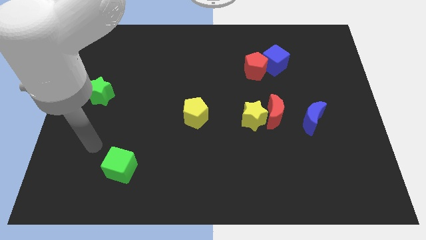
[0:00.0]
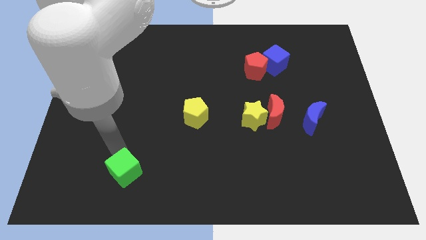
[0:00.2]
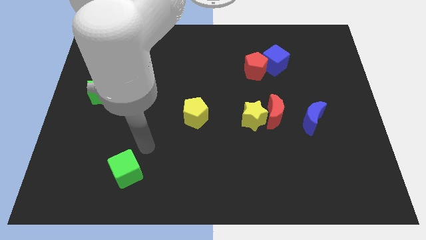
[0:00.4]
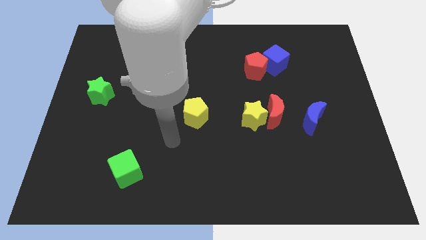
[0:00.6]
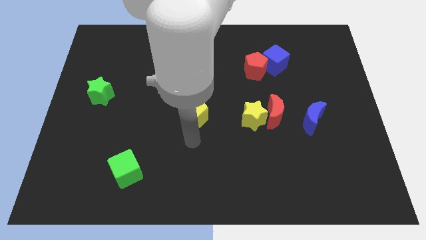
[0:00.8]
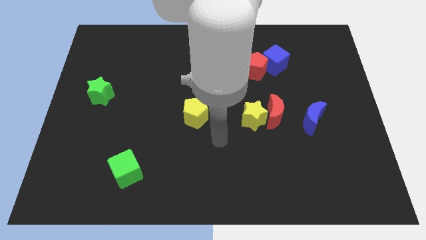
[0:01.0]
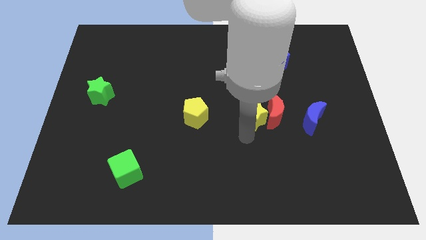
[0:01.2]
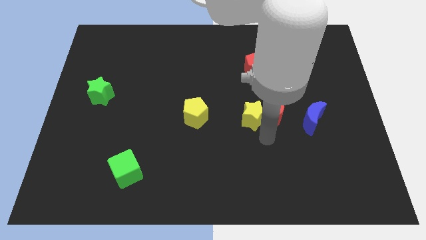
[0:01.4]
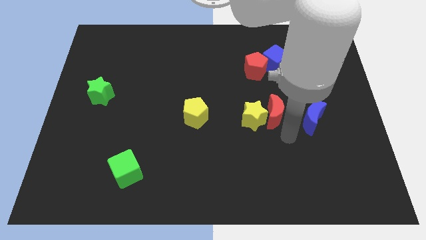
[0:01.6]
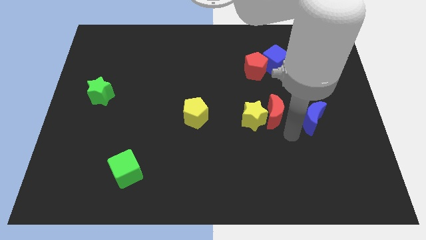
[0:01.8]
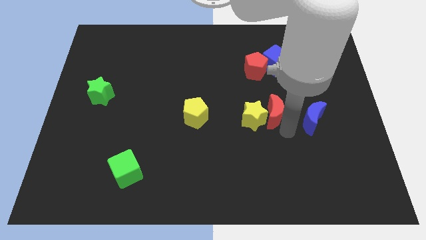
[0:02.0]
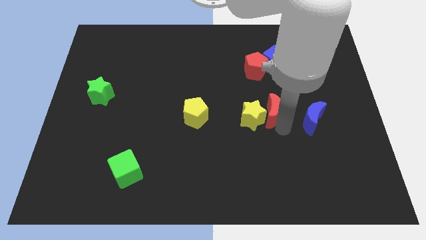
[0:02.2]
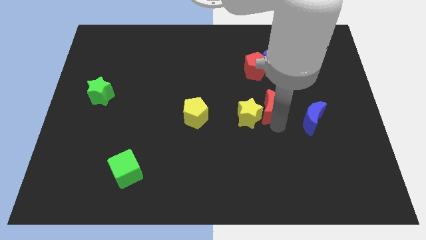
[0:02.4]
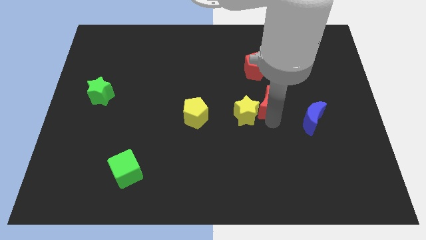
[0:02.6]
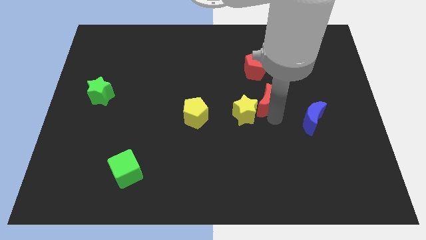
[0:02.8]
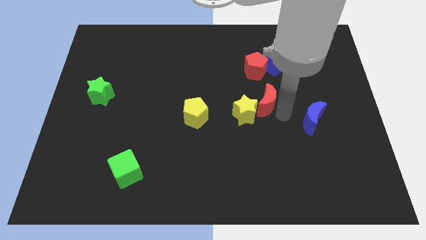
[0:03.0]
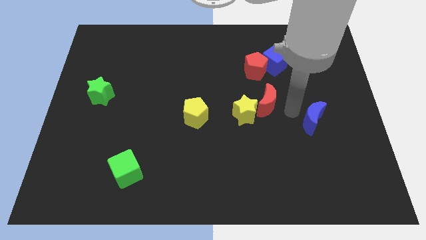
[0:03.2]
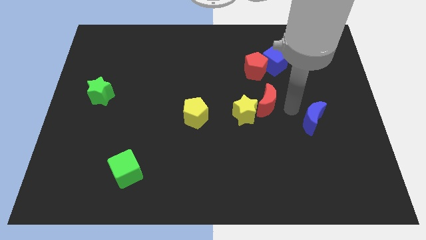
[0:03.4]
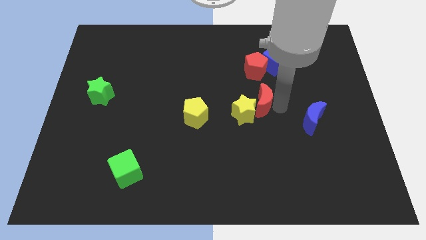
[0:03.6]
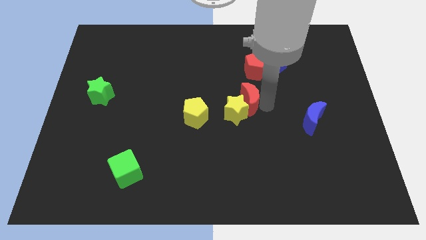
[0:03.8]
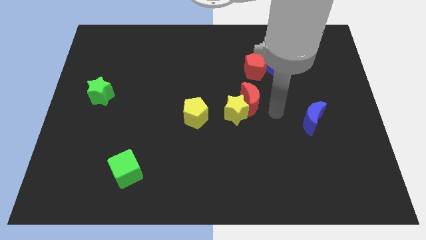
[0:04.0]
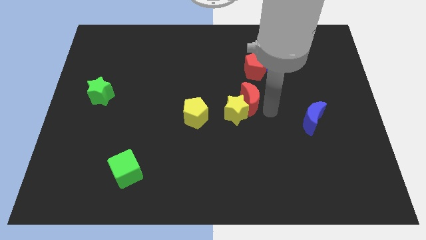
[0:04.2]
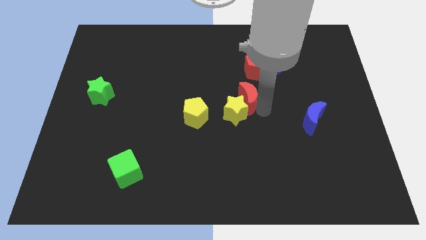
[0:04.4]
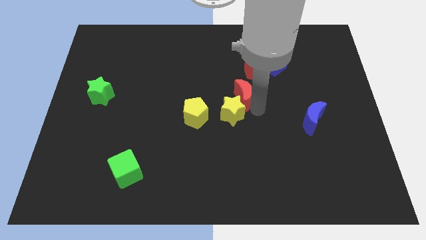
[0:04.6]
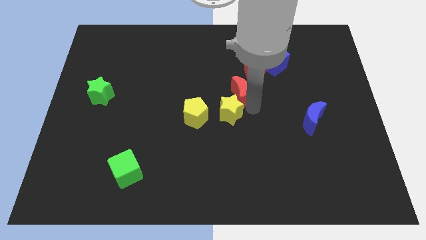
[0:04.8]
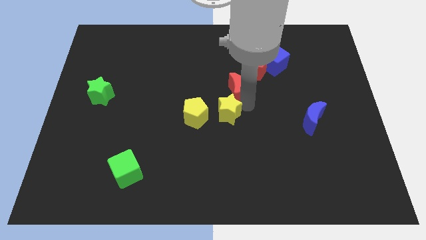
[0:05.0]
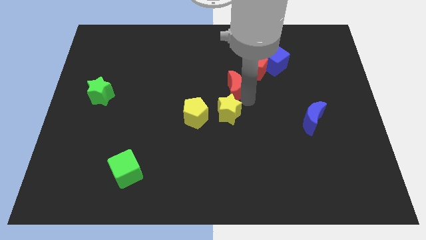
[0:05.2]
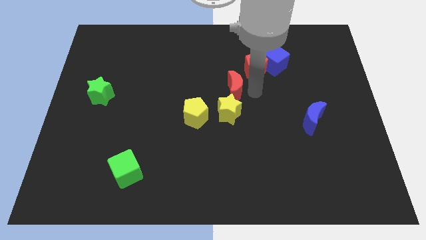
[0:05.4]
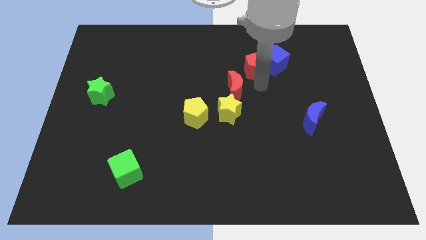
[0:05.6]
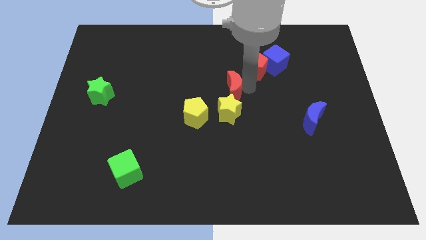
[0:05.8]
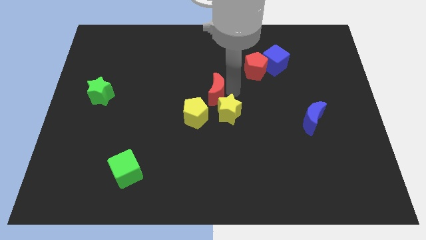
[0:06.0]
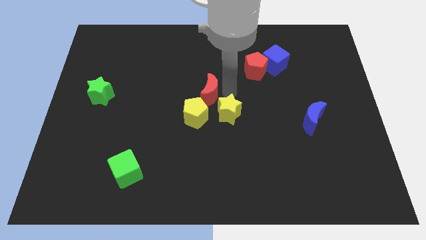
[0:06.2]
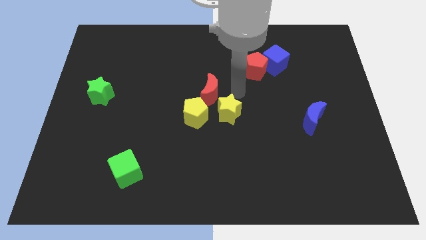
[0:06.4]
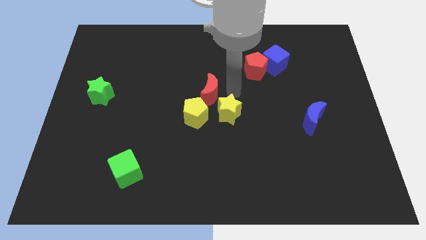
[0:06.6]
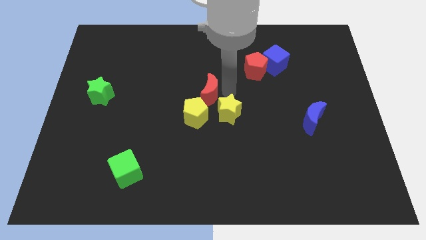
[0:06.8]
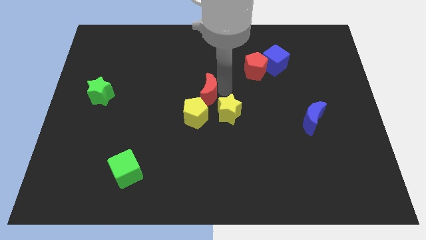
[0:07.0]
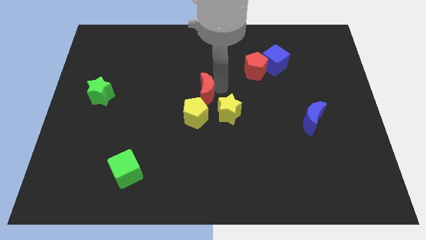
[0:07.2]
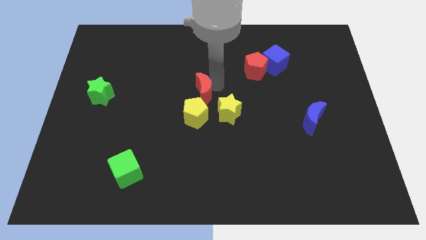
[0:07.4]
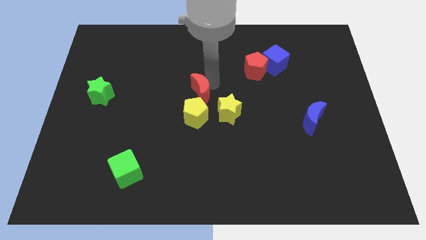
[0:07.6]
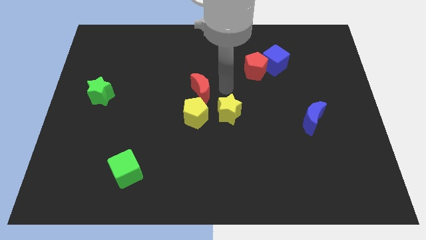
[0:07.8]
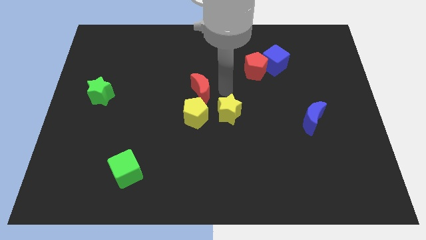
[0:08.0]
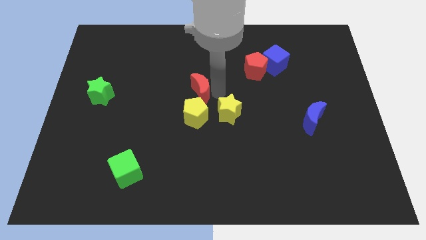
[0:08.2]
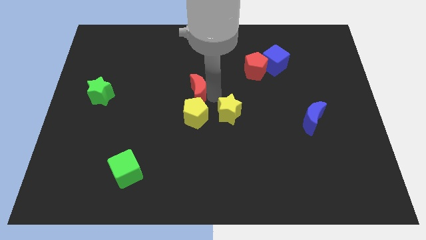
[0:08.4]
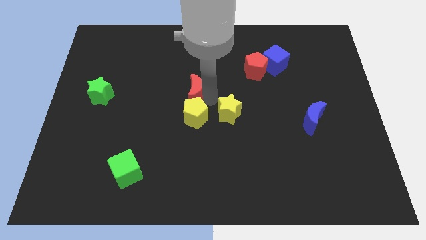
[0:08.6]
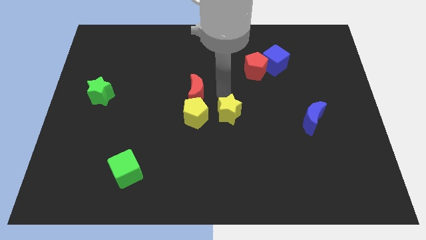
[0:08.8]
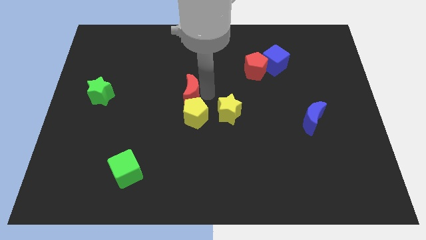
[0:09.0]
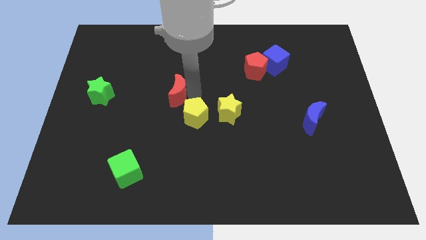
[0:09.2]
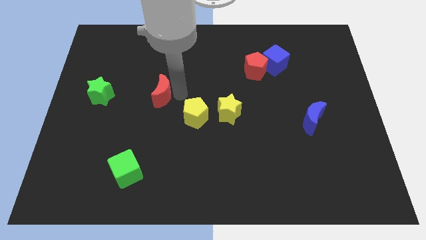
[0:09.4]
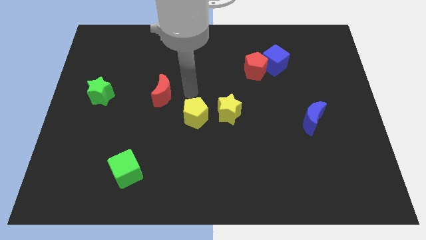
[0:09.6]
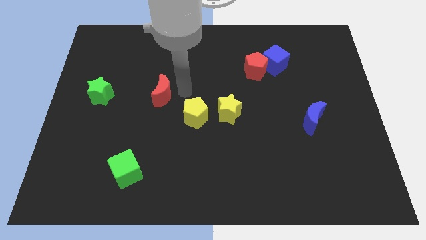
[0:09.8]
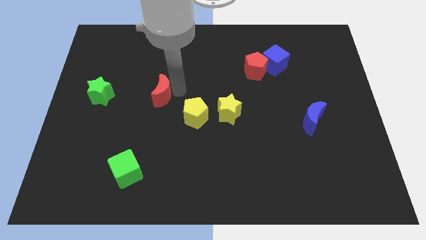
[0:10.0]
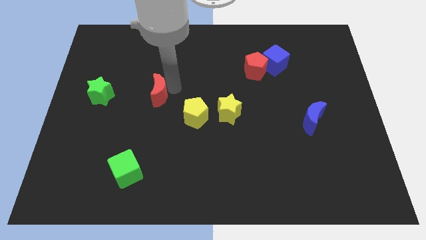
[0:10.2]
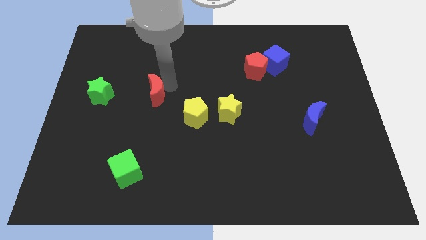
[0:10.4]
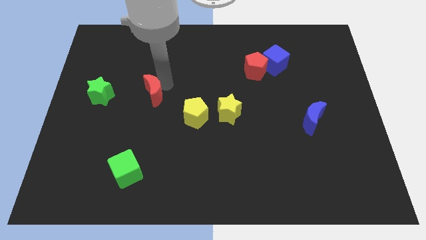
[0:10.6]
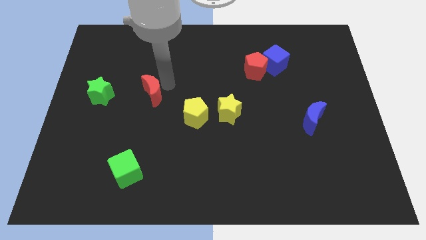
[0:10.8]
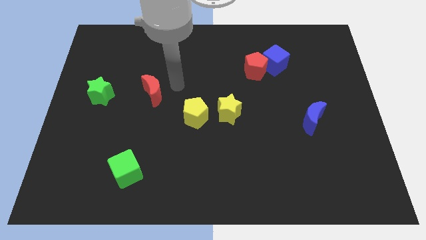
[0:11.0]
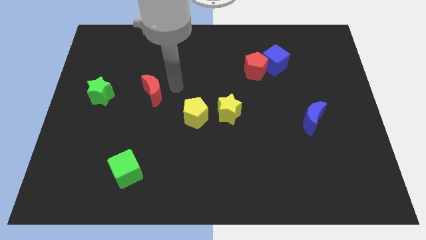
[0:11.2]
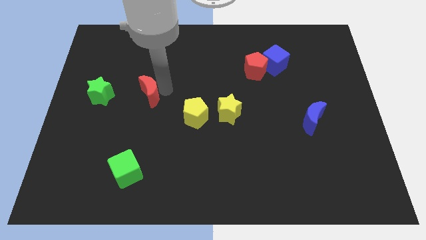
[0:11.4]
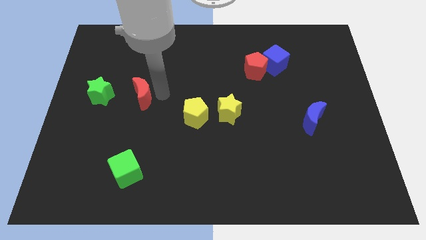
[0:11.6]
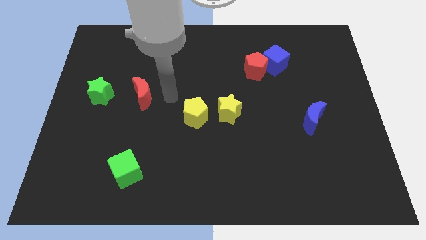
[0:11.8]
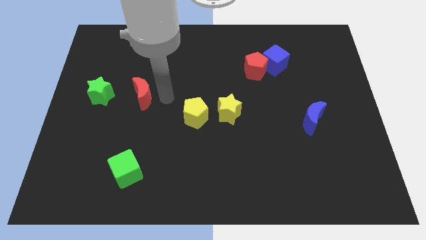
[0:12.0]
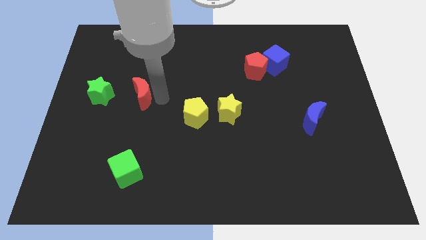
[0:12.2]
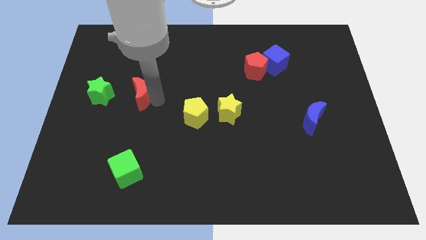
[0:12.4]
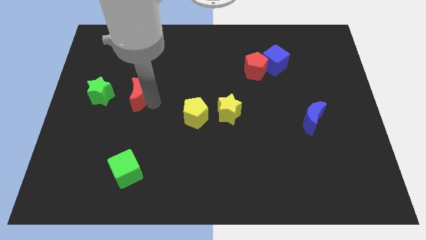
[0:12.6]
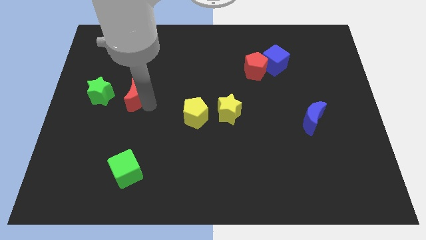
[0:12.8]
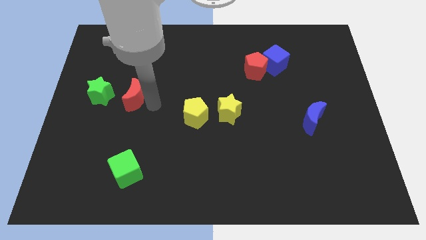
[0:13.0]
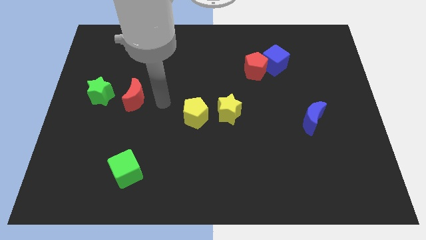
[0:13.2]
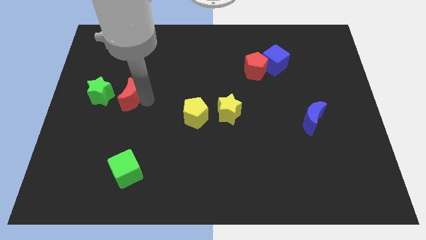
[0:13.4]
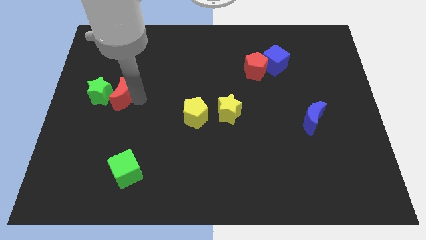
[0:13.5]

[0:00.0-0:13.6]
push the red moon next to the green star

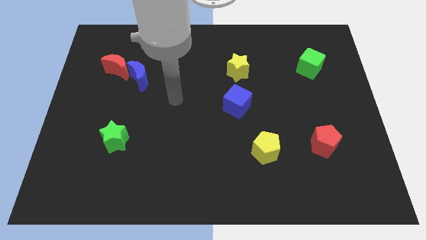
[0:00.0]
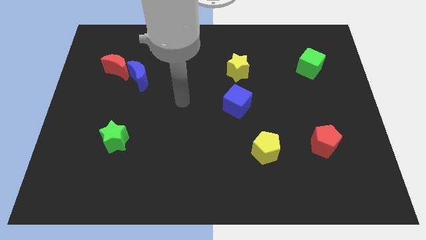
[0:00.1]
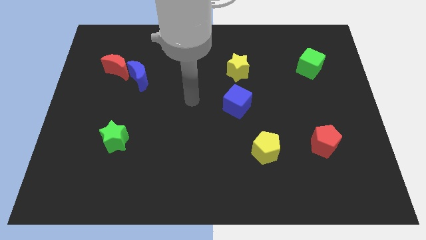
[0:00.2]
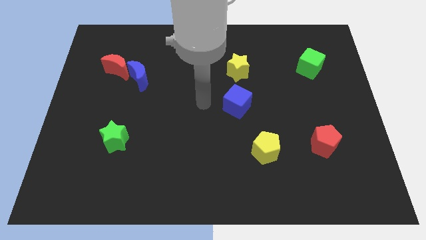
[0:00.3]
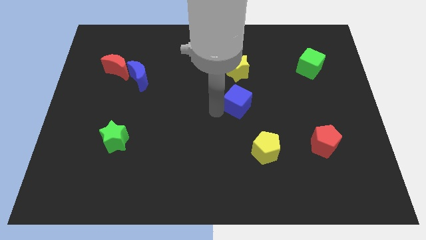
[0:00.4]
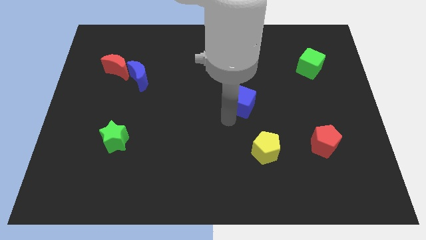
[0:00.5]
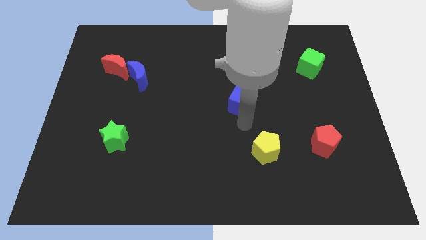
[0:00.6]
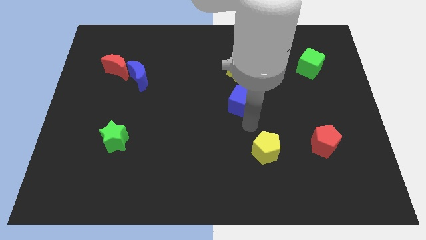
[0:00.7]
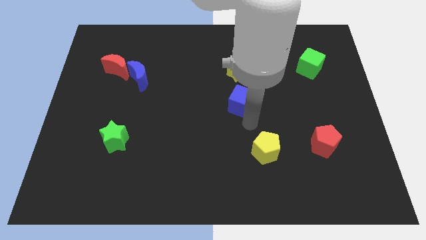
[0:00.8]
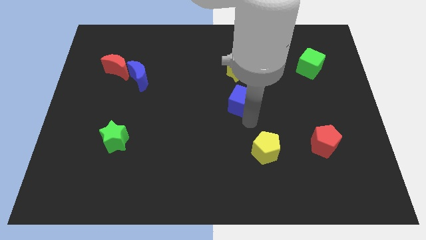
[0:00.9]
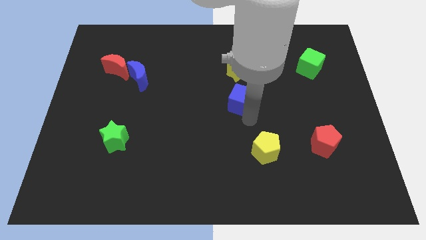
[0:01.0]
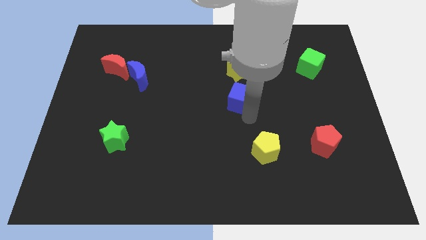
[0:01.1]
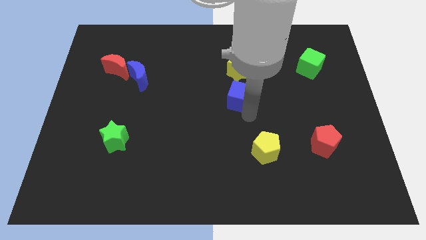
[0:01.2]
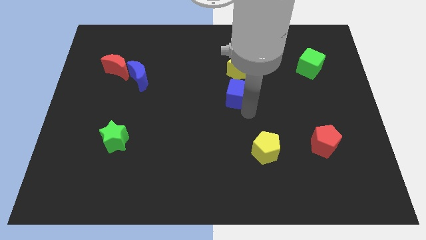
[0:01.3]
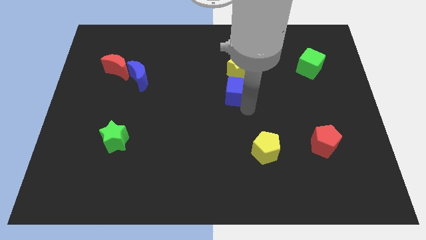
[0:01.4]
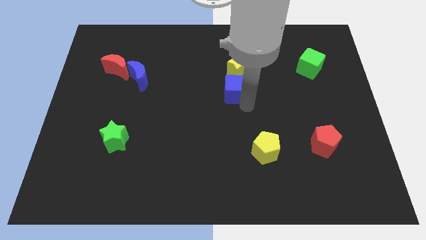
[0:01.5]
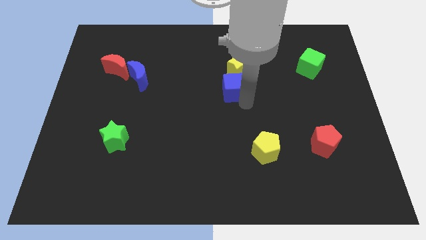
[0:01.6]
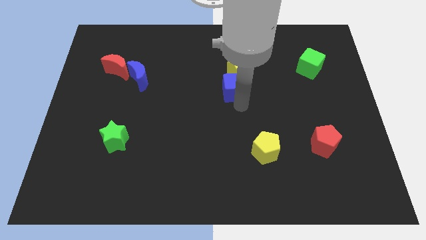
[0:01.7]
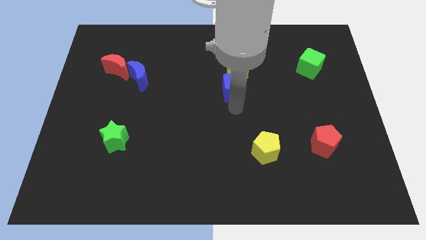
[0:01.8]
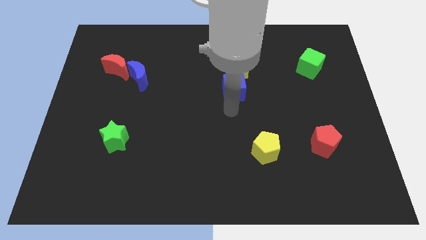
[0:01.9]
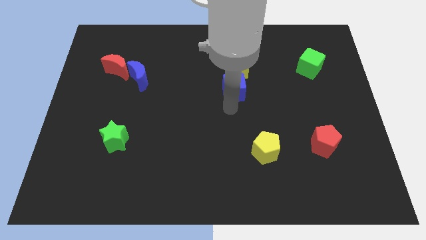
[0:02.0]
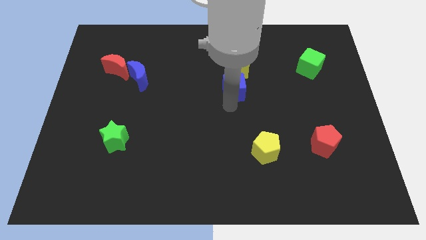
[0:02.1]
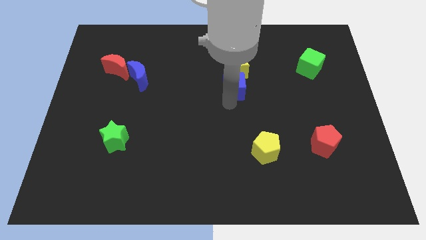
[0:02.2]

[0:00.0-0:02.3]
put the blue cube next to the yellow star
